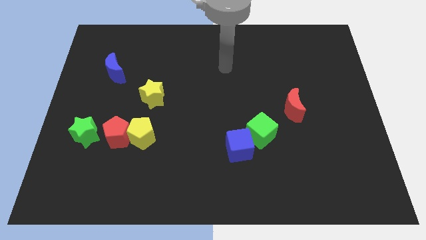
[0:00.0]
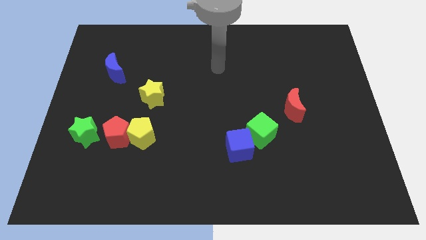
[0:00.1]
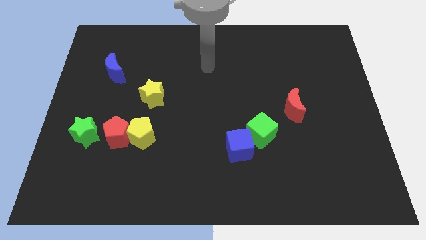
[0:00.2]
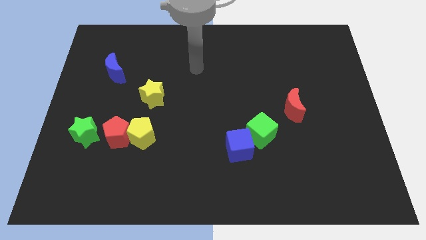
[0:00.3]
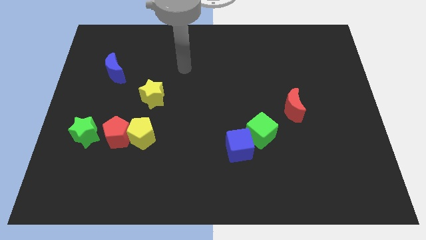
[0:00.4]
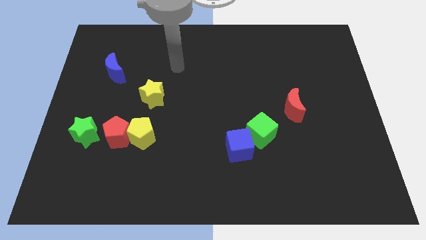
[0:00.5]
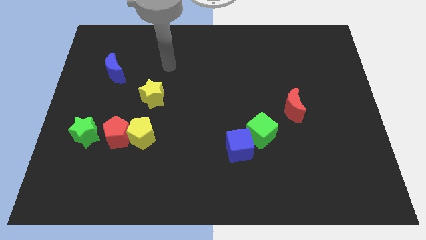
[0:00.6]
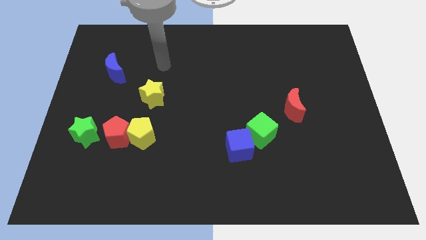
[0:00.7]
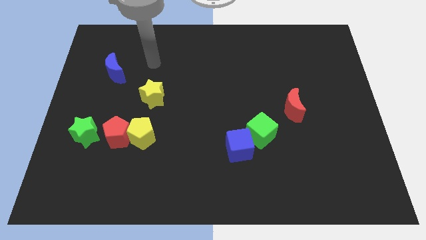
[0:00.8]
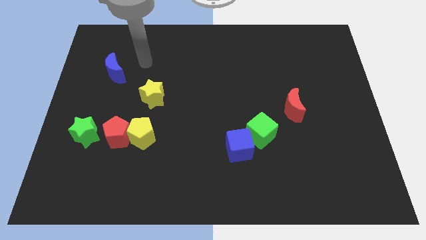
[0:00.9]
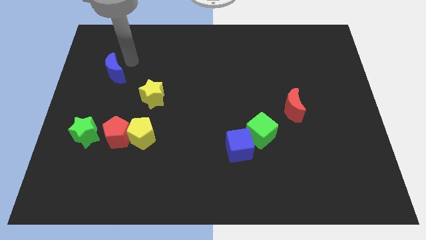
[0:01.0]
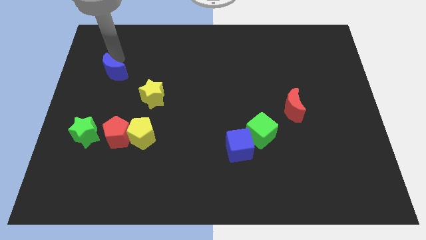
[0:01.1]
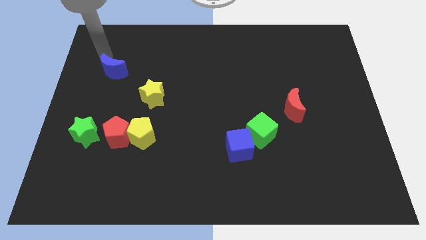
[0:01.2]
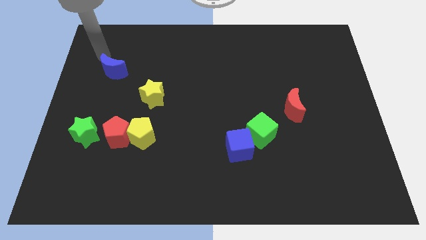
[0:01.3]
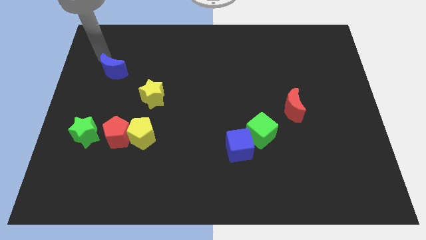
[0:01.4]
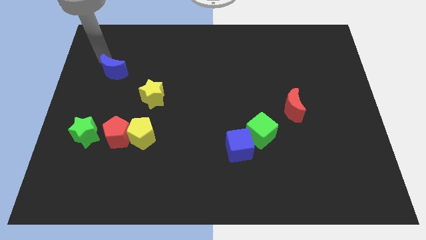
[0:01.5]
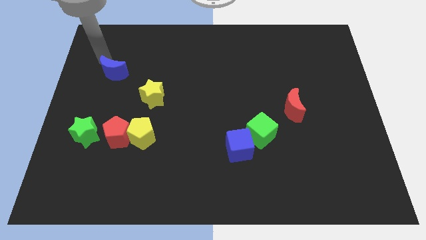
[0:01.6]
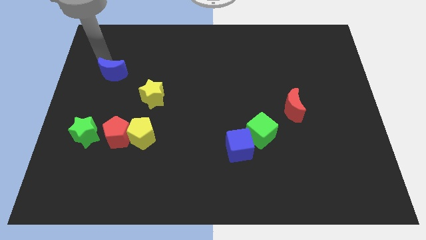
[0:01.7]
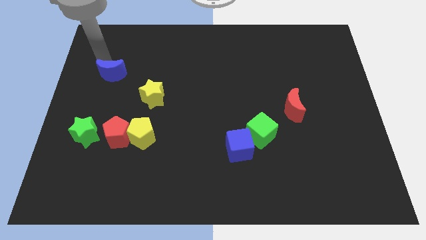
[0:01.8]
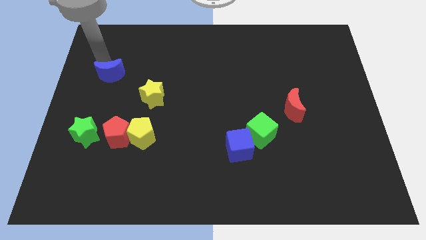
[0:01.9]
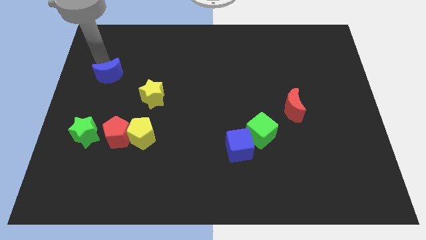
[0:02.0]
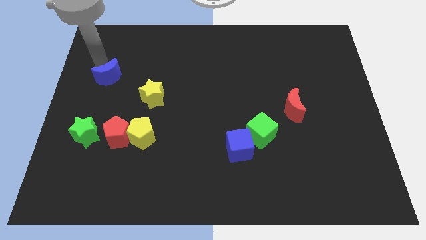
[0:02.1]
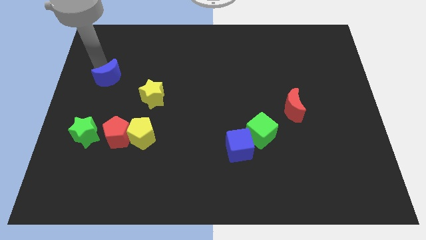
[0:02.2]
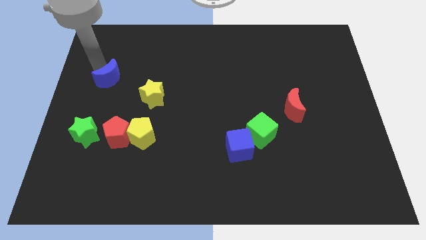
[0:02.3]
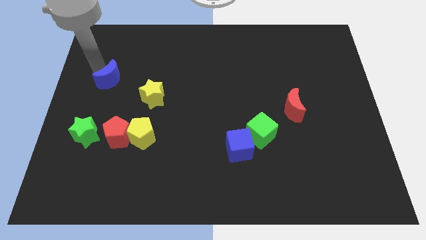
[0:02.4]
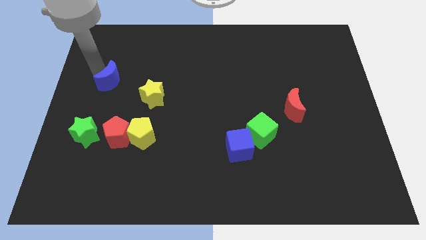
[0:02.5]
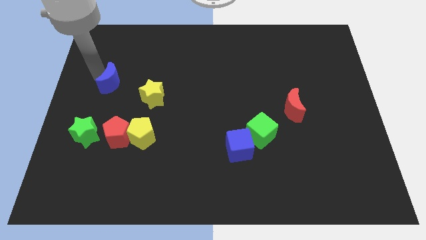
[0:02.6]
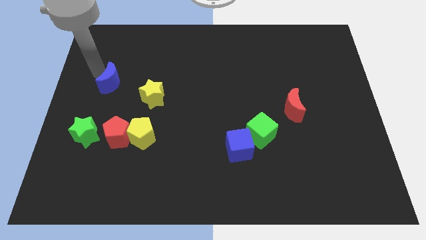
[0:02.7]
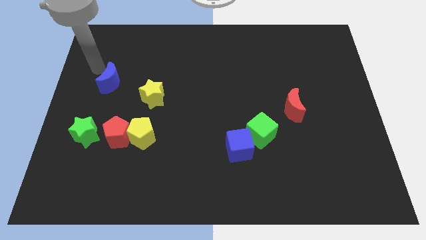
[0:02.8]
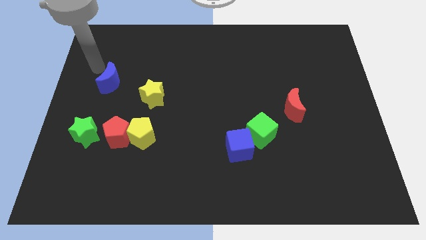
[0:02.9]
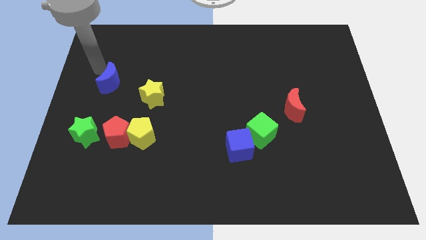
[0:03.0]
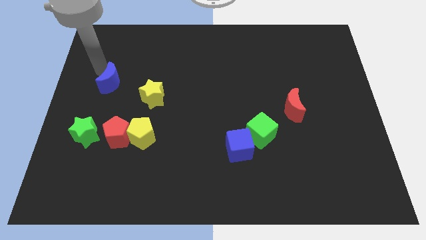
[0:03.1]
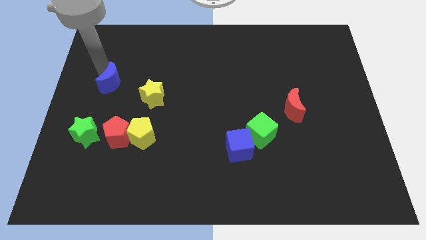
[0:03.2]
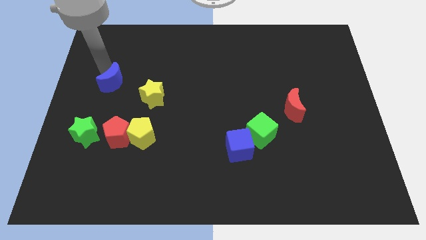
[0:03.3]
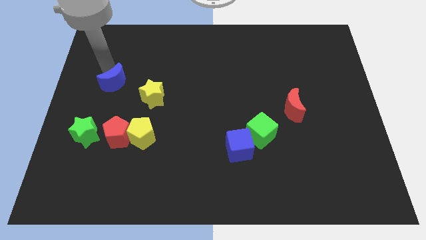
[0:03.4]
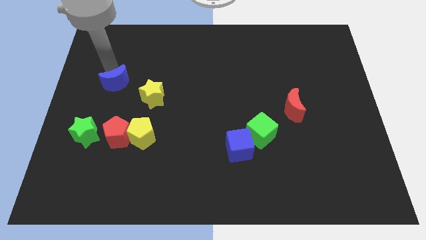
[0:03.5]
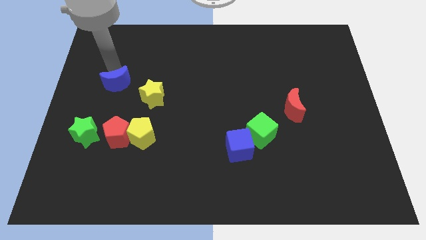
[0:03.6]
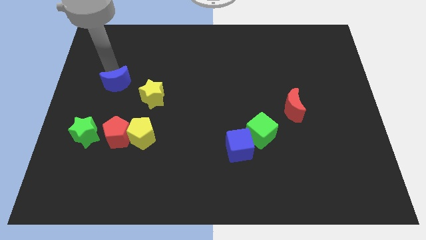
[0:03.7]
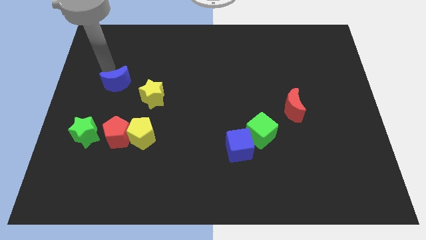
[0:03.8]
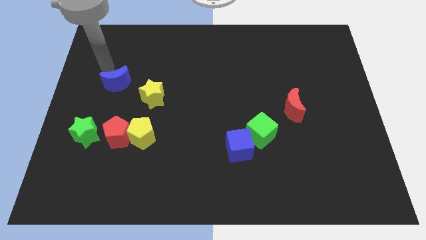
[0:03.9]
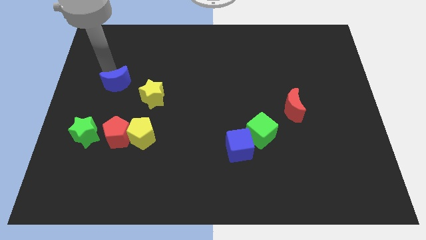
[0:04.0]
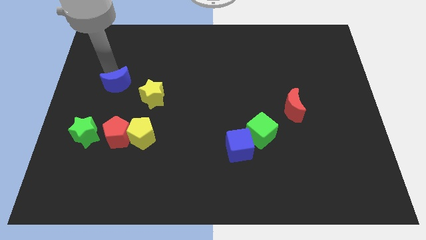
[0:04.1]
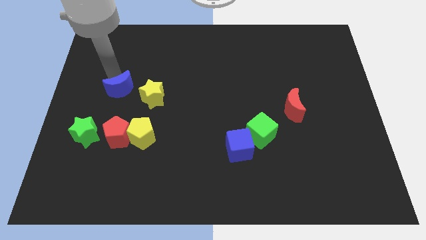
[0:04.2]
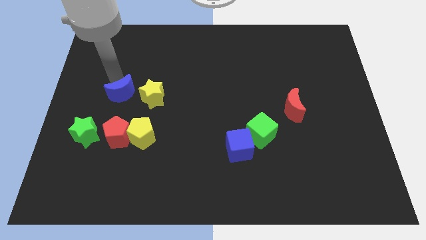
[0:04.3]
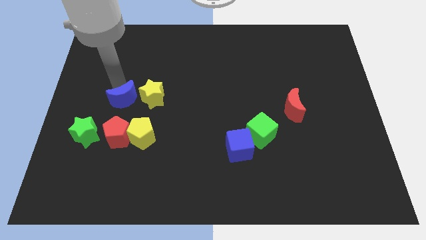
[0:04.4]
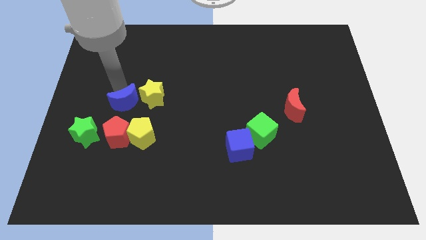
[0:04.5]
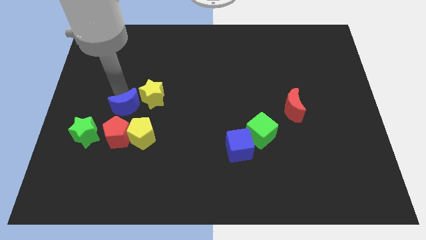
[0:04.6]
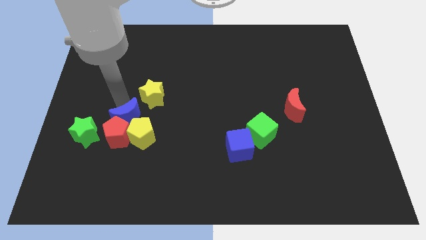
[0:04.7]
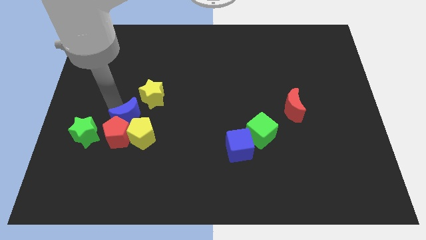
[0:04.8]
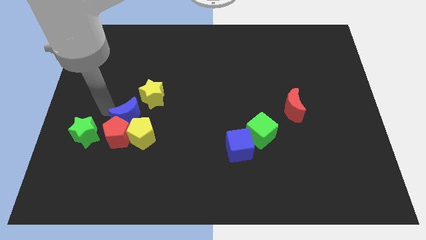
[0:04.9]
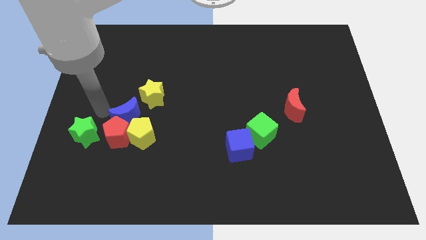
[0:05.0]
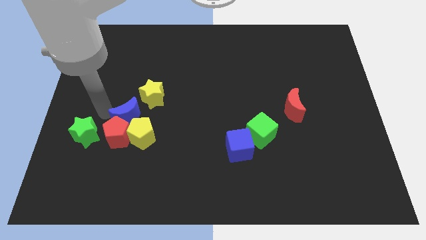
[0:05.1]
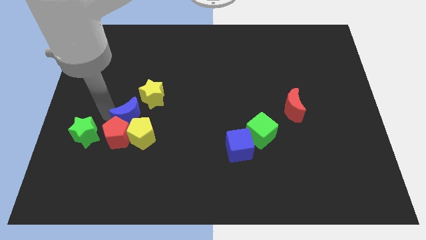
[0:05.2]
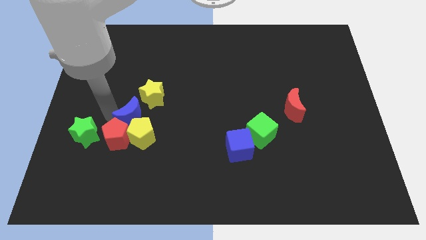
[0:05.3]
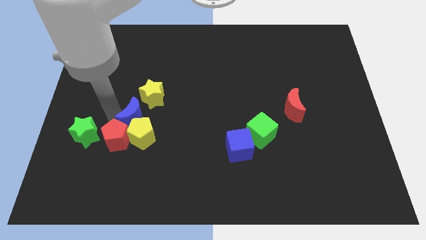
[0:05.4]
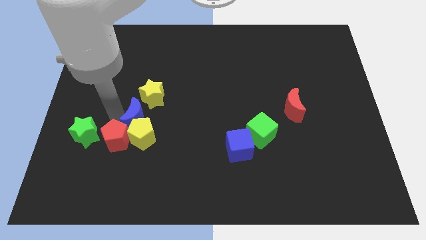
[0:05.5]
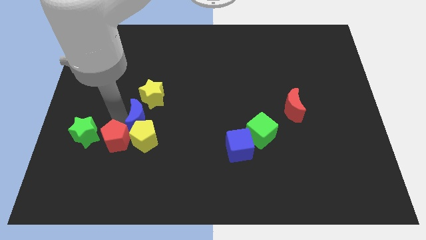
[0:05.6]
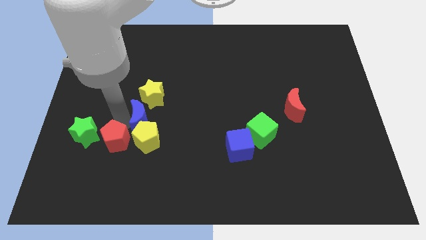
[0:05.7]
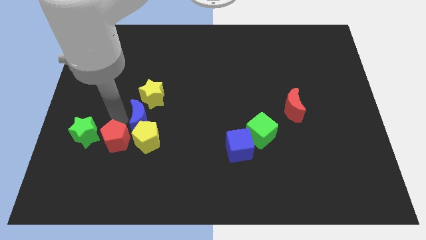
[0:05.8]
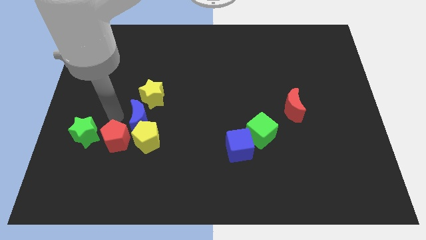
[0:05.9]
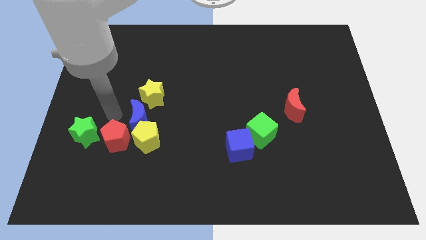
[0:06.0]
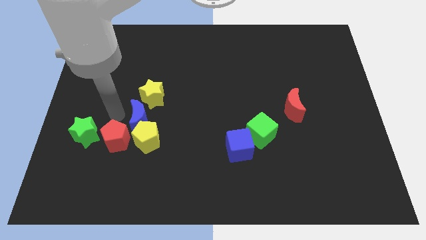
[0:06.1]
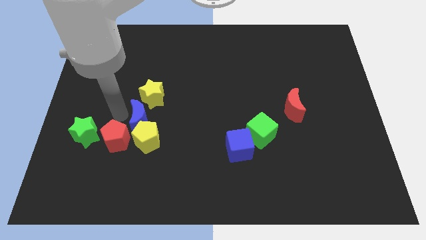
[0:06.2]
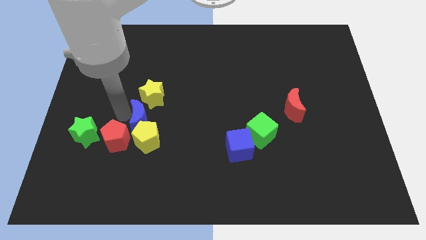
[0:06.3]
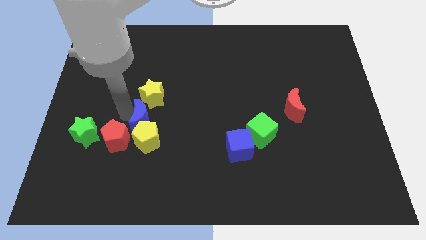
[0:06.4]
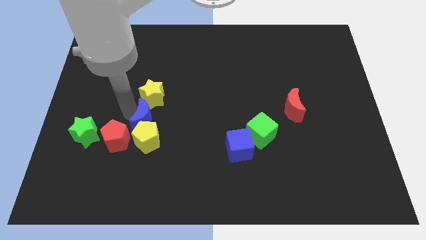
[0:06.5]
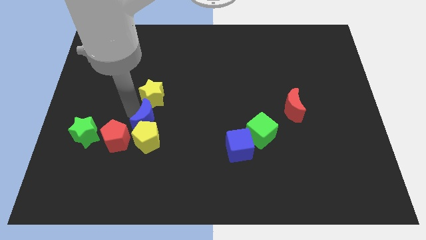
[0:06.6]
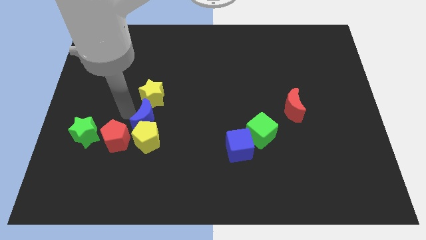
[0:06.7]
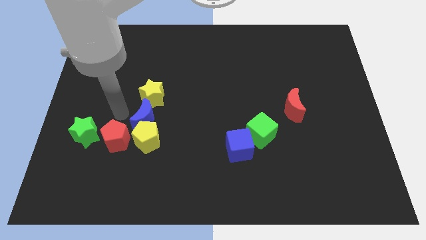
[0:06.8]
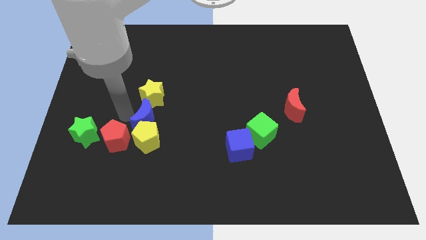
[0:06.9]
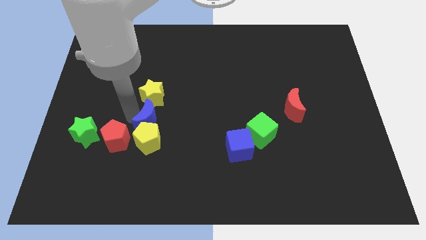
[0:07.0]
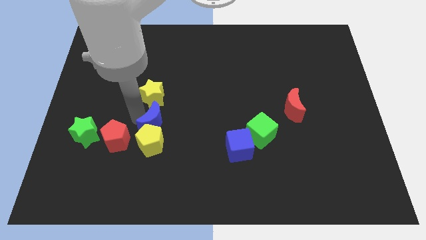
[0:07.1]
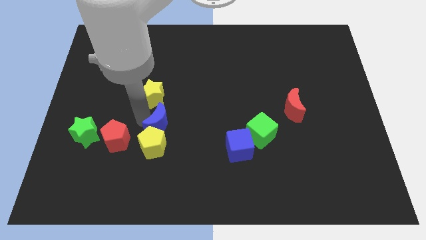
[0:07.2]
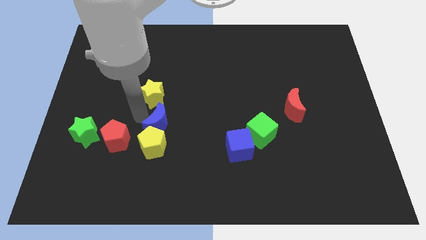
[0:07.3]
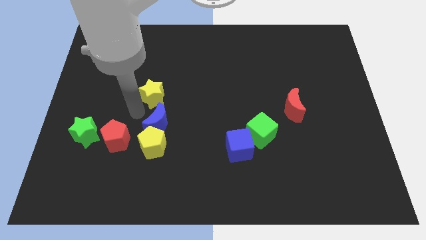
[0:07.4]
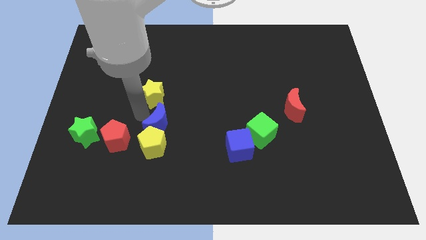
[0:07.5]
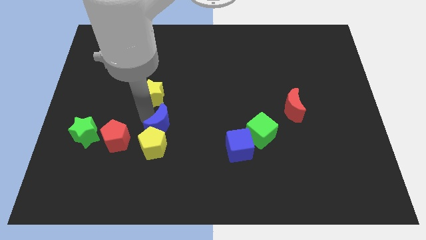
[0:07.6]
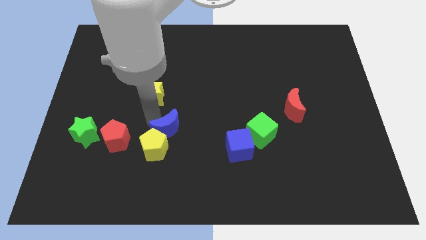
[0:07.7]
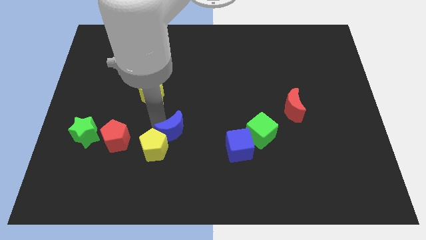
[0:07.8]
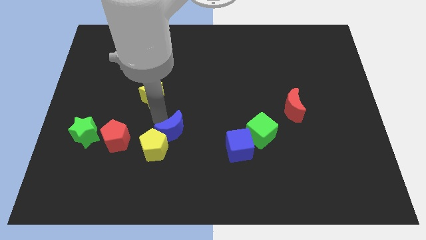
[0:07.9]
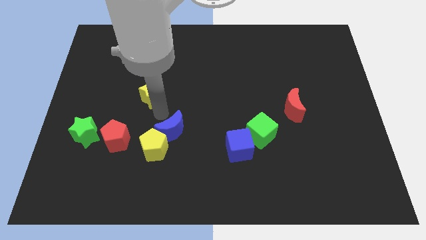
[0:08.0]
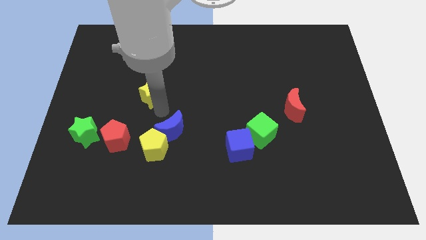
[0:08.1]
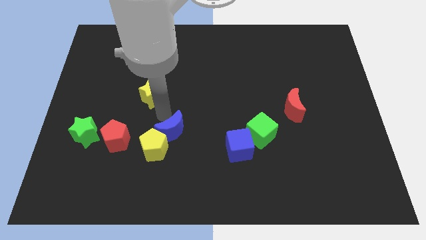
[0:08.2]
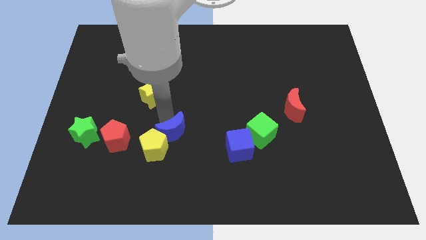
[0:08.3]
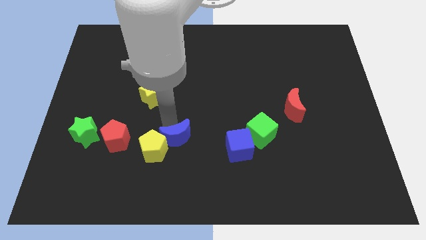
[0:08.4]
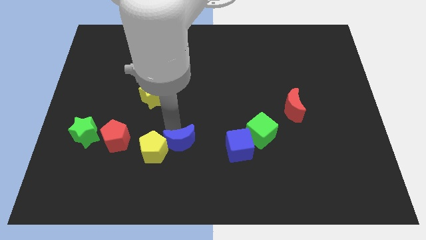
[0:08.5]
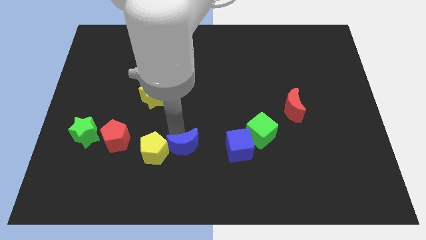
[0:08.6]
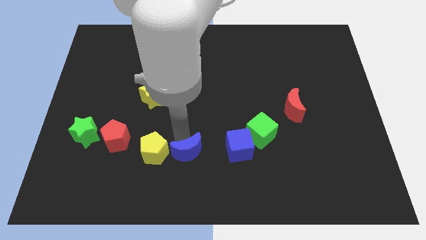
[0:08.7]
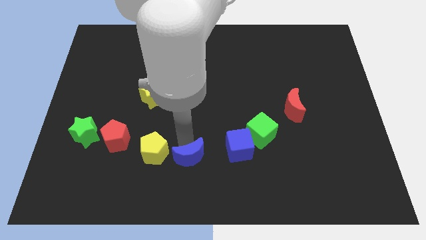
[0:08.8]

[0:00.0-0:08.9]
push the blue moon to the bottom side
